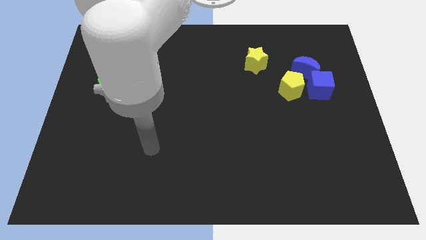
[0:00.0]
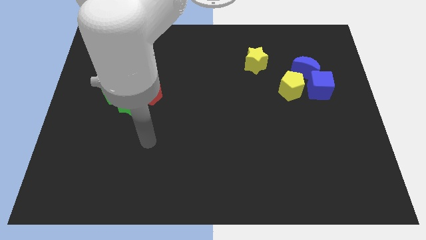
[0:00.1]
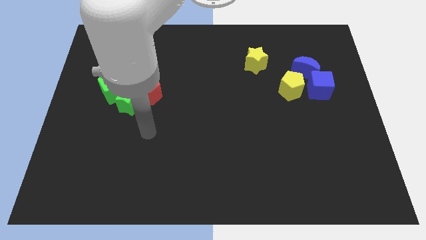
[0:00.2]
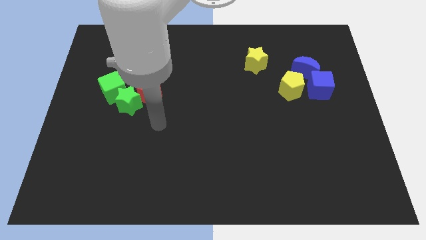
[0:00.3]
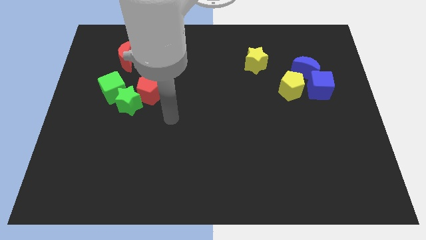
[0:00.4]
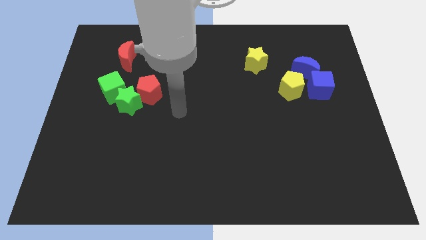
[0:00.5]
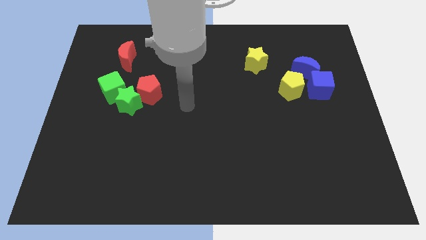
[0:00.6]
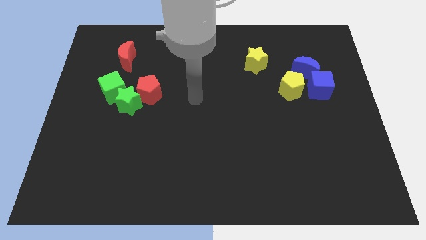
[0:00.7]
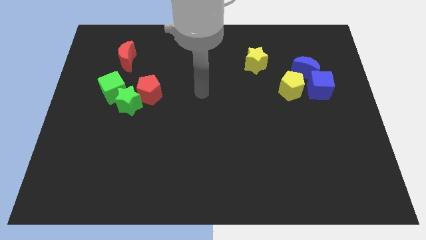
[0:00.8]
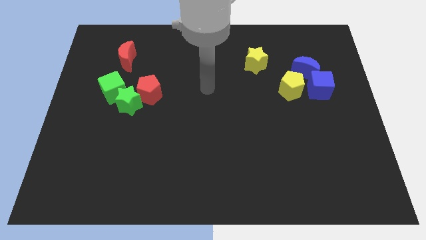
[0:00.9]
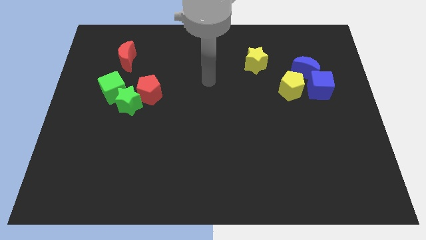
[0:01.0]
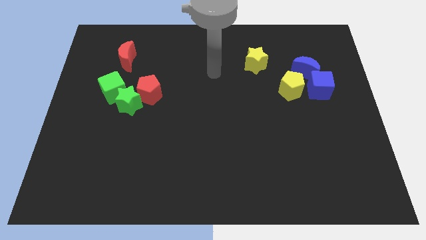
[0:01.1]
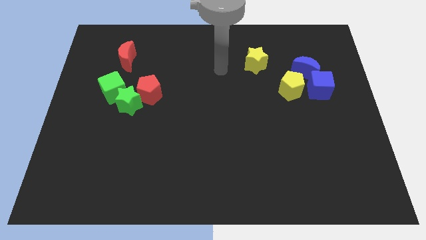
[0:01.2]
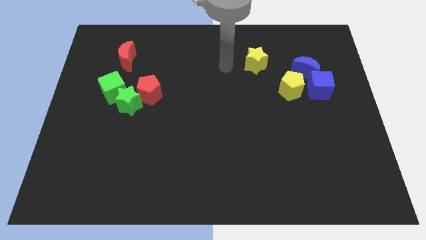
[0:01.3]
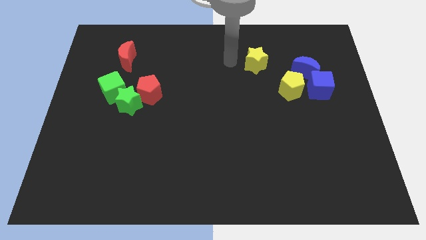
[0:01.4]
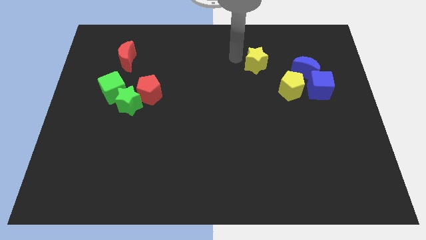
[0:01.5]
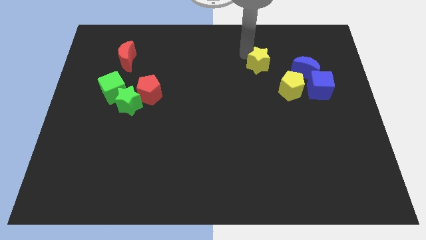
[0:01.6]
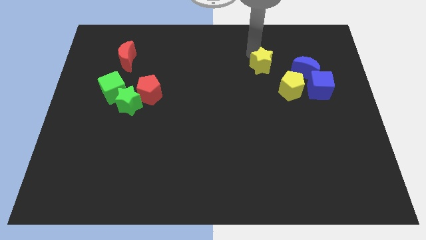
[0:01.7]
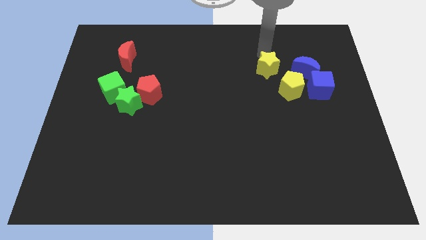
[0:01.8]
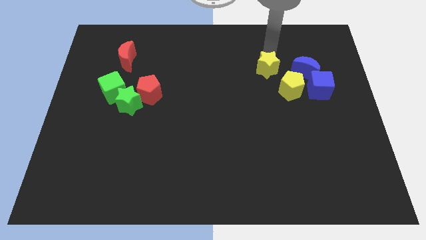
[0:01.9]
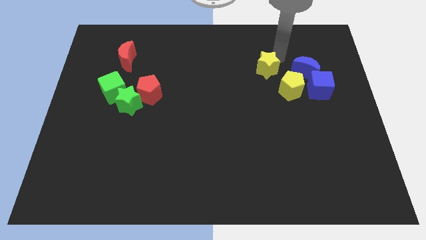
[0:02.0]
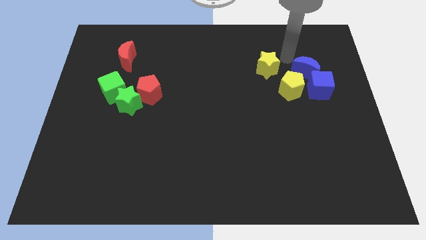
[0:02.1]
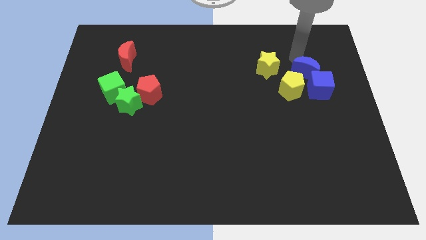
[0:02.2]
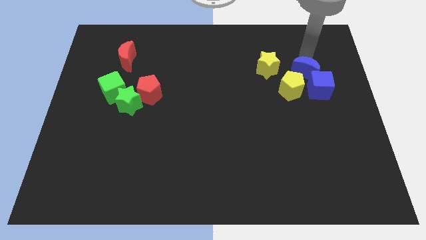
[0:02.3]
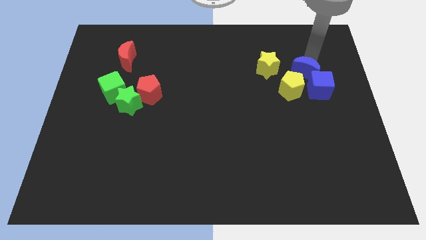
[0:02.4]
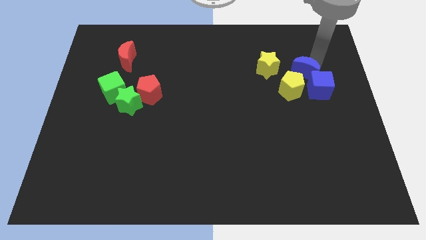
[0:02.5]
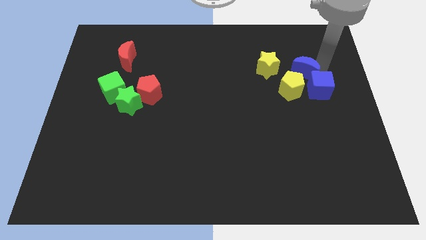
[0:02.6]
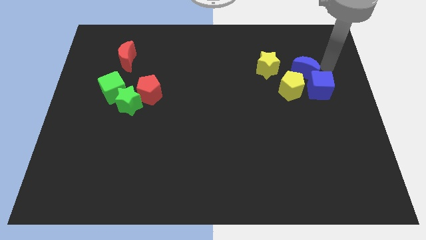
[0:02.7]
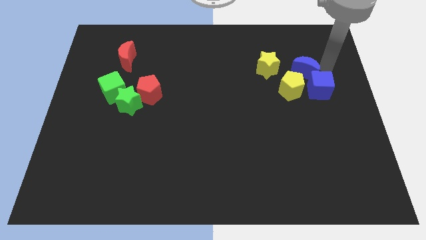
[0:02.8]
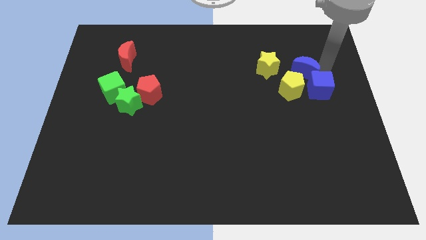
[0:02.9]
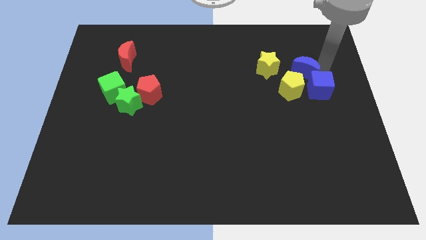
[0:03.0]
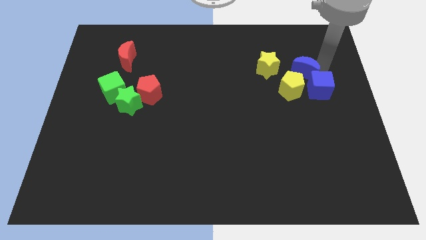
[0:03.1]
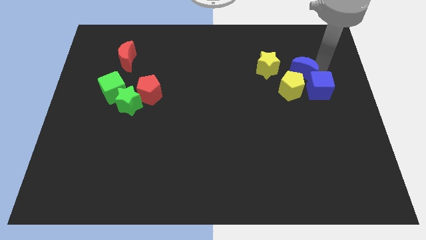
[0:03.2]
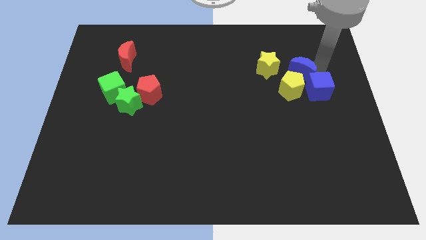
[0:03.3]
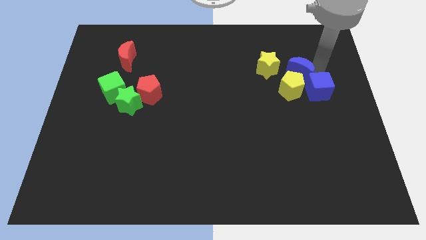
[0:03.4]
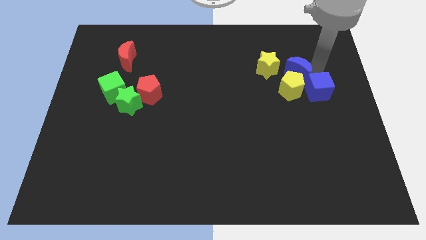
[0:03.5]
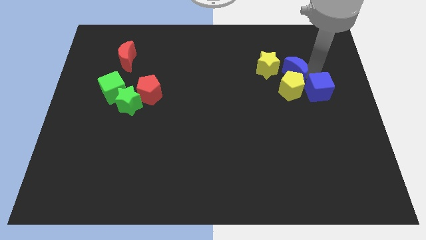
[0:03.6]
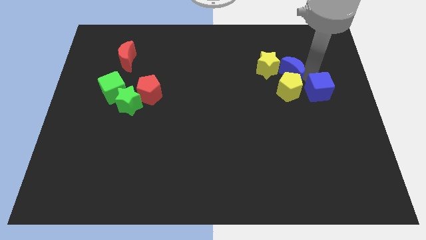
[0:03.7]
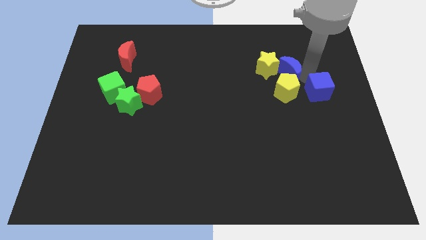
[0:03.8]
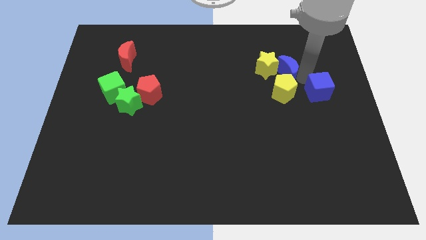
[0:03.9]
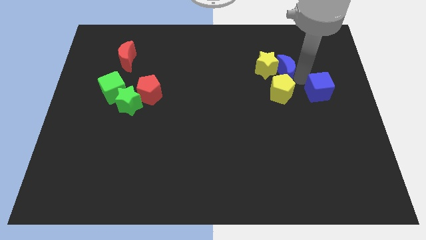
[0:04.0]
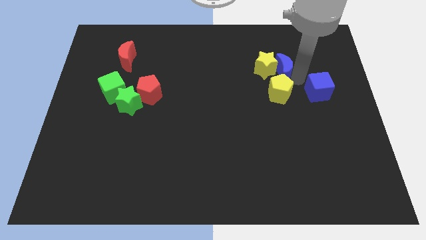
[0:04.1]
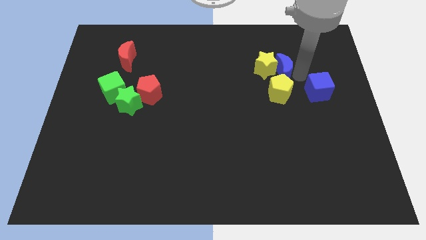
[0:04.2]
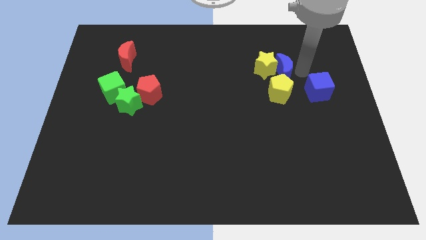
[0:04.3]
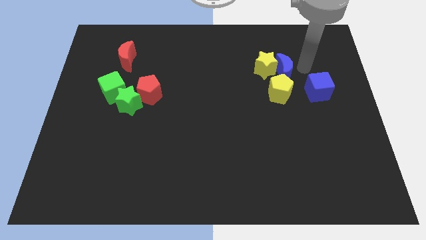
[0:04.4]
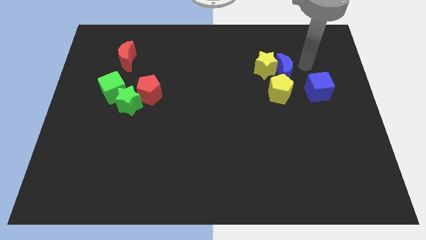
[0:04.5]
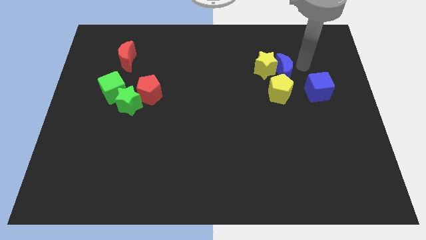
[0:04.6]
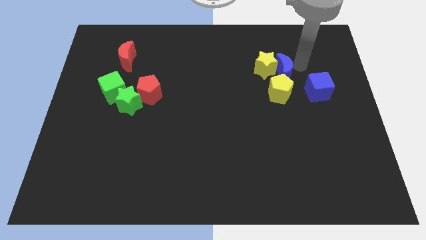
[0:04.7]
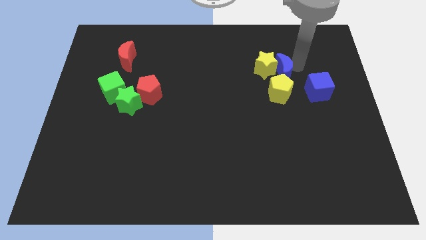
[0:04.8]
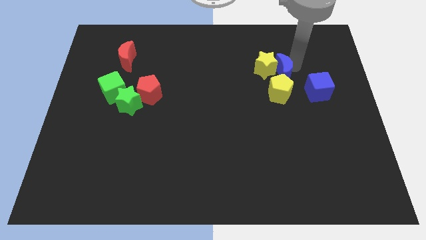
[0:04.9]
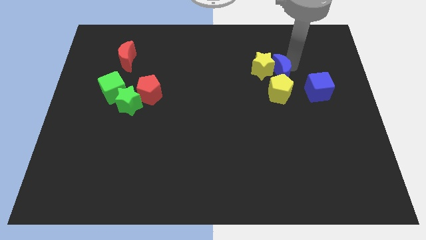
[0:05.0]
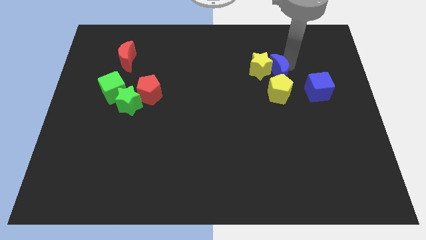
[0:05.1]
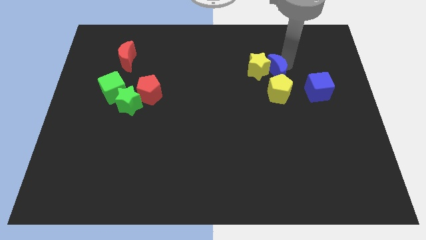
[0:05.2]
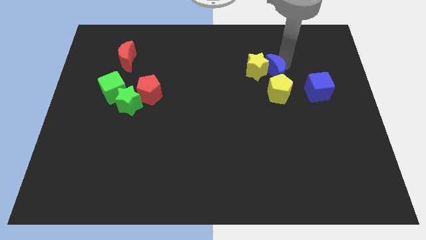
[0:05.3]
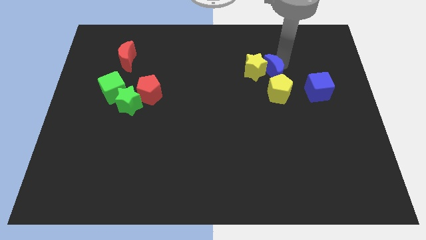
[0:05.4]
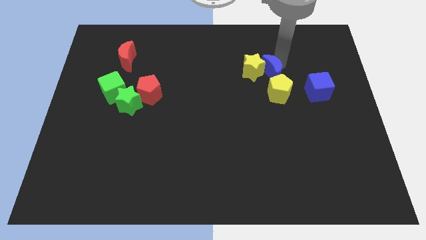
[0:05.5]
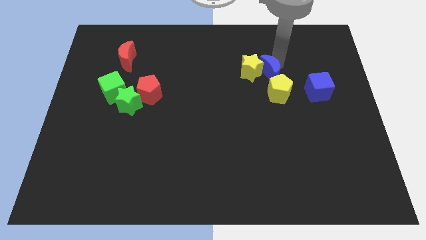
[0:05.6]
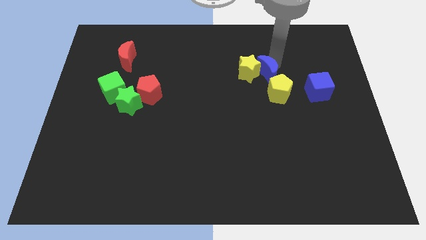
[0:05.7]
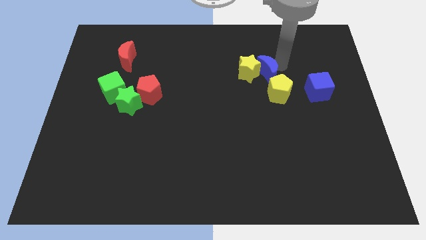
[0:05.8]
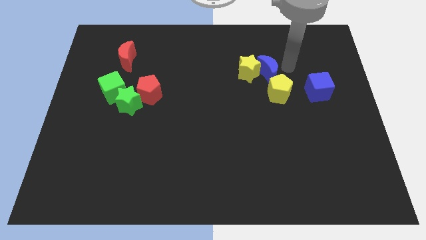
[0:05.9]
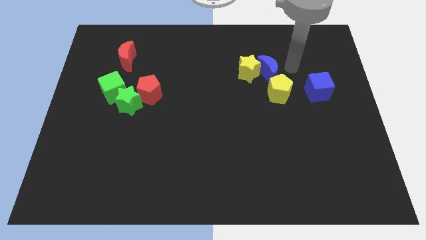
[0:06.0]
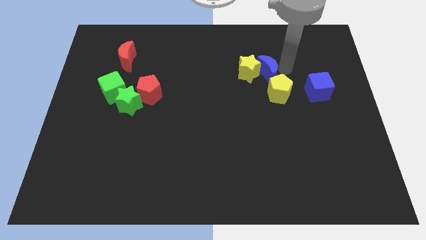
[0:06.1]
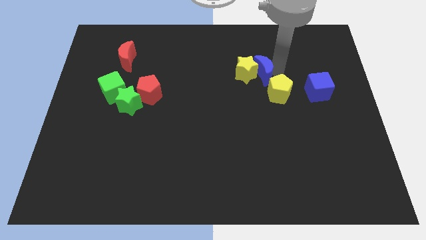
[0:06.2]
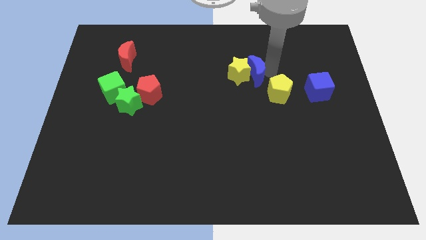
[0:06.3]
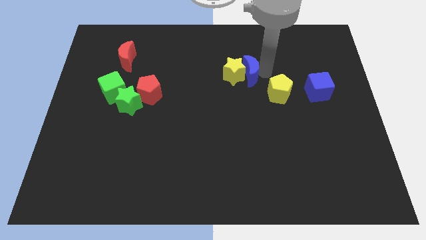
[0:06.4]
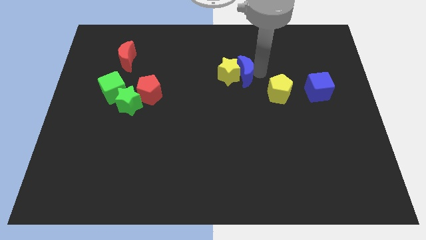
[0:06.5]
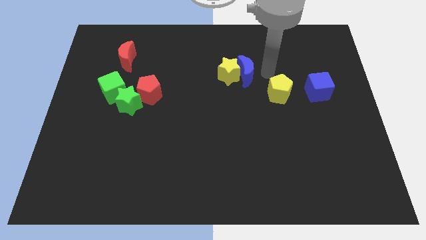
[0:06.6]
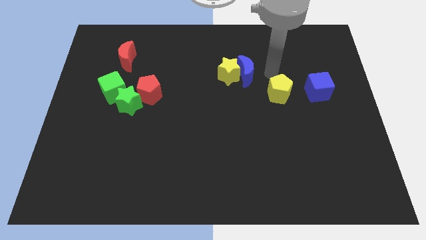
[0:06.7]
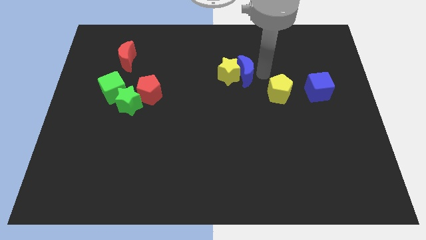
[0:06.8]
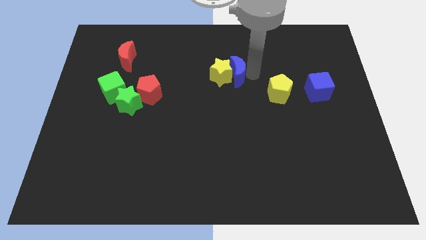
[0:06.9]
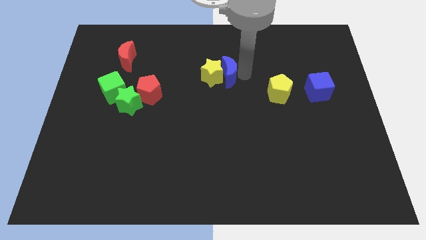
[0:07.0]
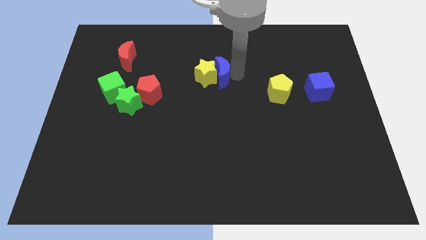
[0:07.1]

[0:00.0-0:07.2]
push the blue moon to the left

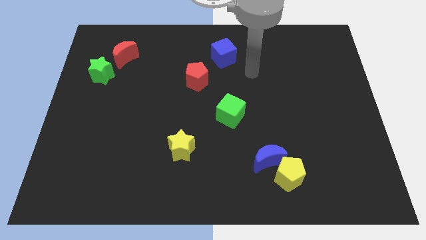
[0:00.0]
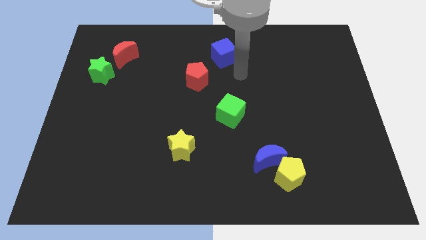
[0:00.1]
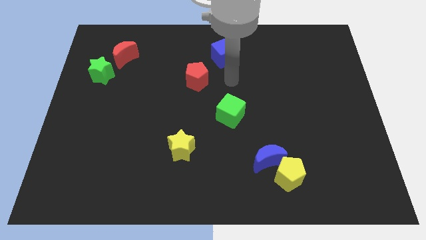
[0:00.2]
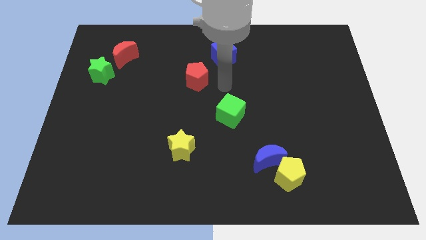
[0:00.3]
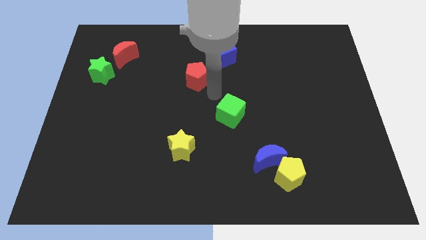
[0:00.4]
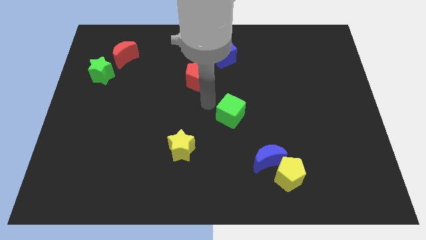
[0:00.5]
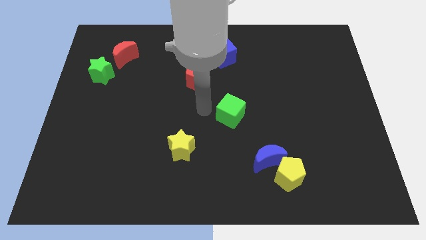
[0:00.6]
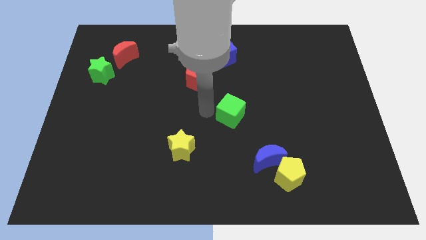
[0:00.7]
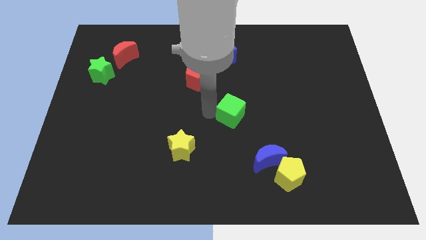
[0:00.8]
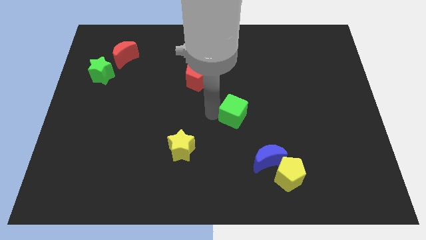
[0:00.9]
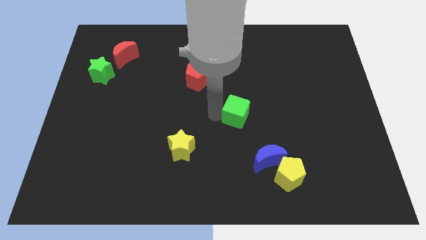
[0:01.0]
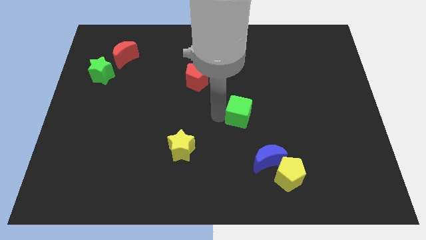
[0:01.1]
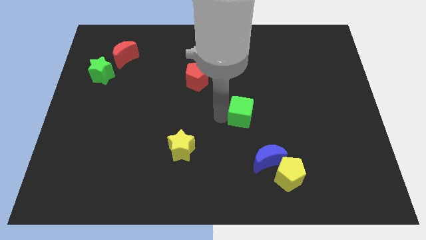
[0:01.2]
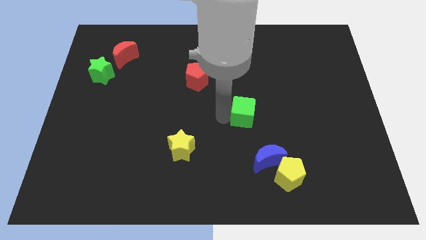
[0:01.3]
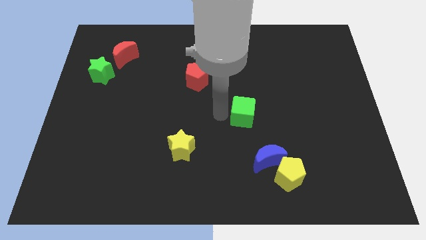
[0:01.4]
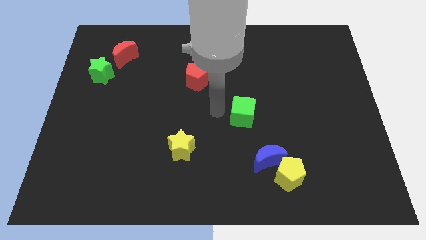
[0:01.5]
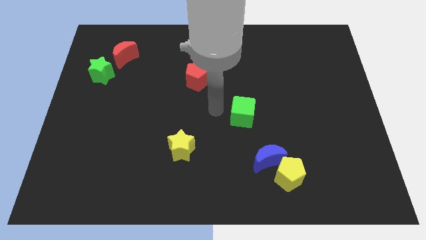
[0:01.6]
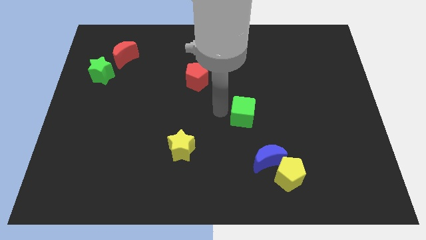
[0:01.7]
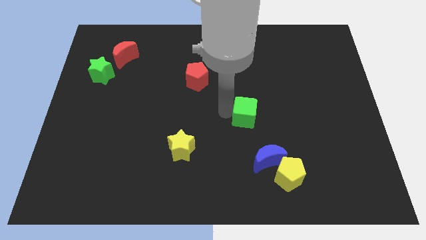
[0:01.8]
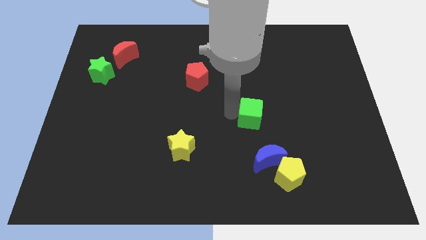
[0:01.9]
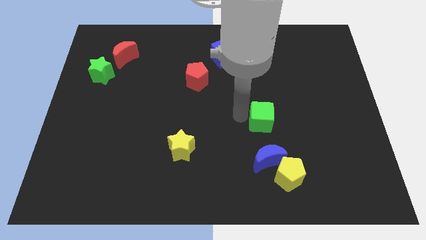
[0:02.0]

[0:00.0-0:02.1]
move the green cube a little bit to the right
